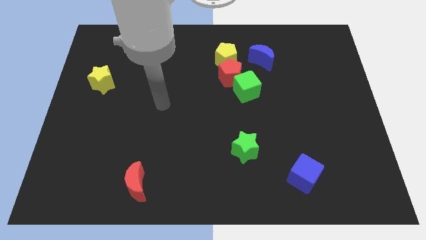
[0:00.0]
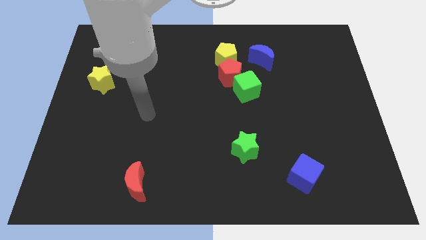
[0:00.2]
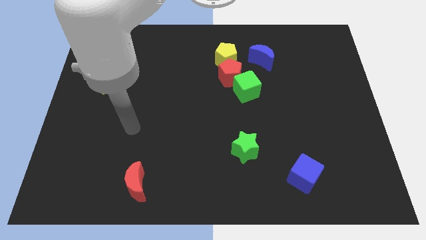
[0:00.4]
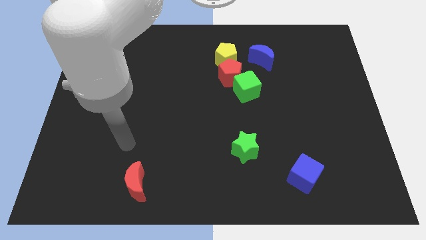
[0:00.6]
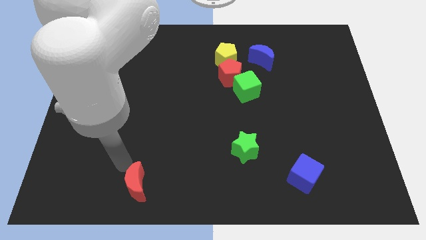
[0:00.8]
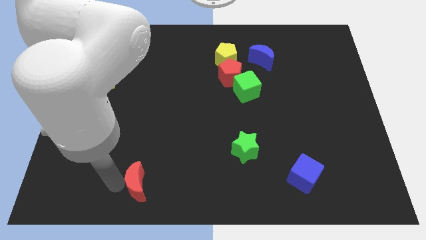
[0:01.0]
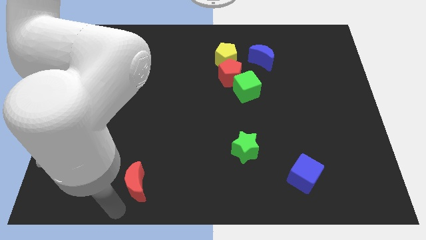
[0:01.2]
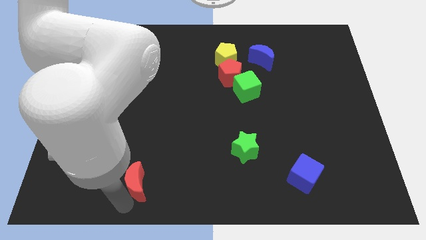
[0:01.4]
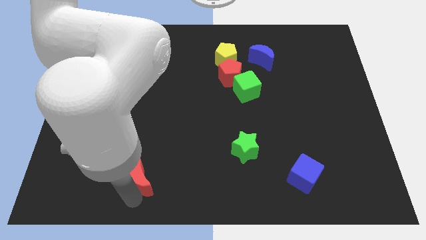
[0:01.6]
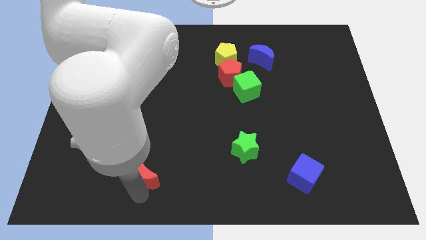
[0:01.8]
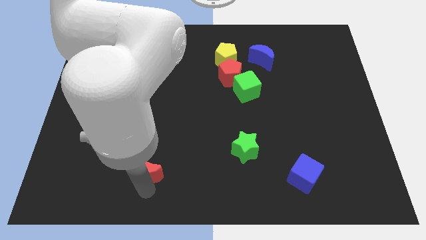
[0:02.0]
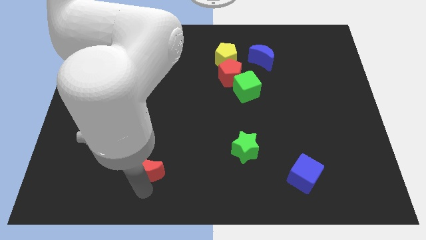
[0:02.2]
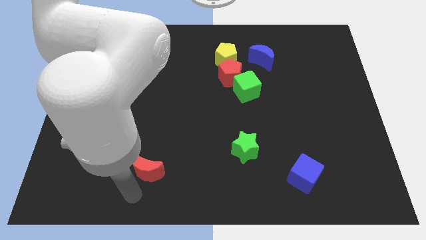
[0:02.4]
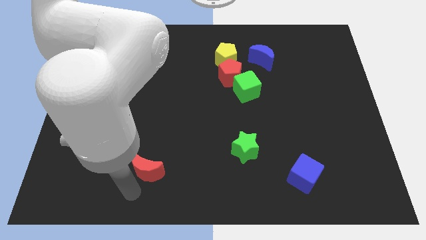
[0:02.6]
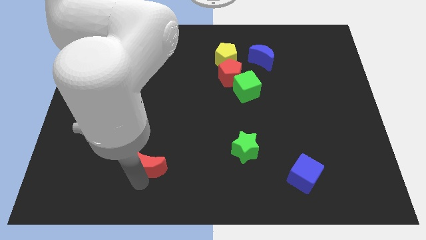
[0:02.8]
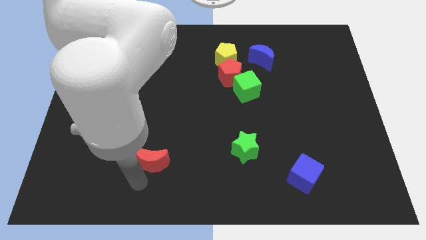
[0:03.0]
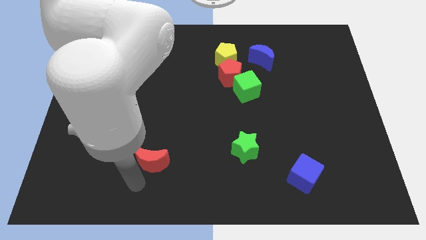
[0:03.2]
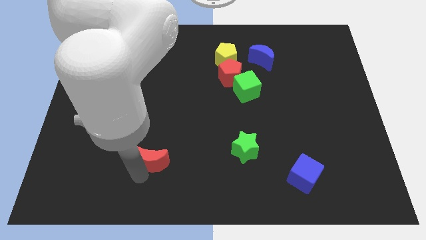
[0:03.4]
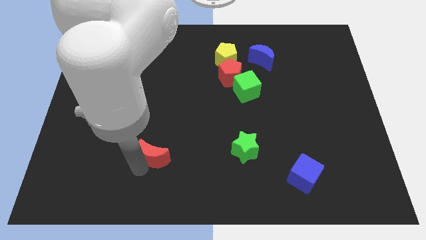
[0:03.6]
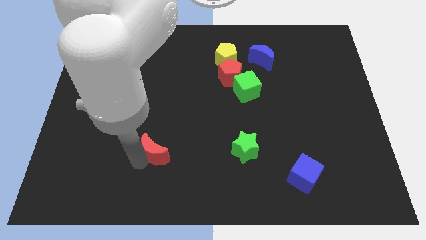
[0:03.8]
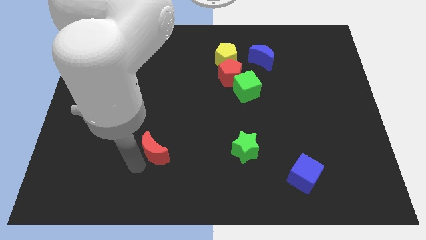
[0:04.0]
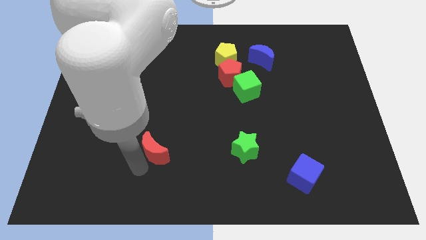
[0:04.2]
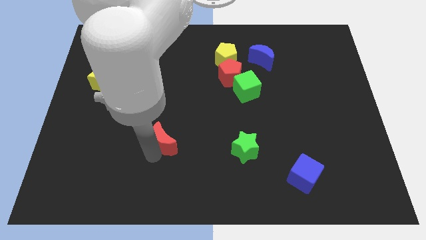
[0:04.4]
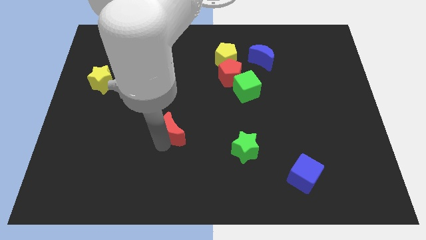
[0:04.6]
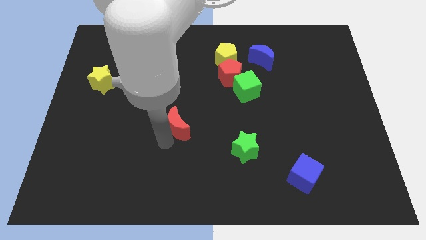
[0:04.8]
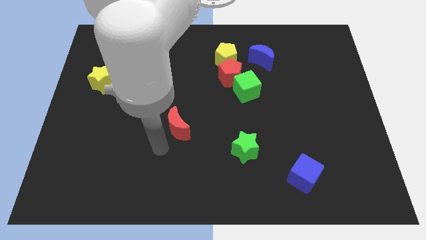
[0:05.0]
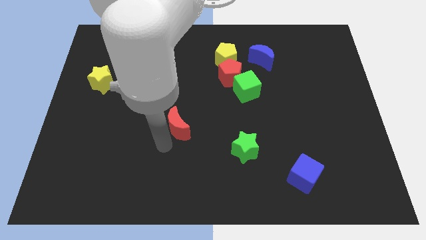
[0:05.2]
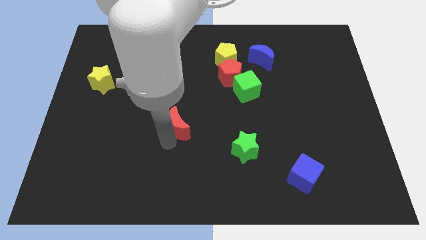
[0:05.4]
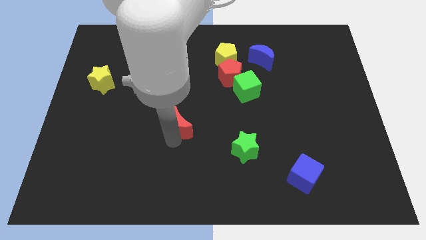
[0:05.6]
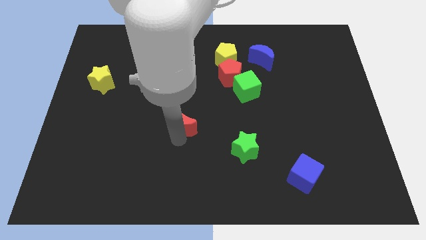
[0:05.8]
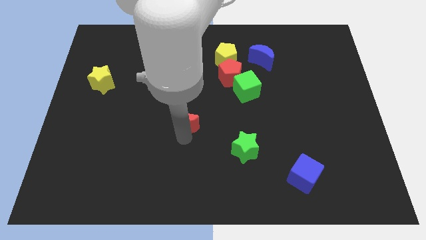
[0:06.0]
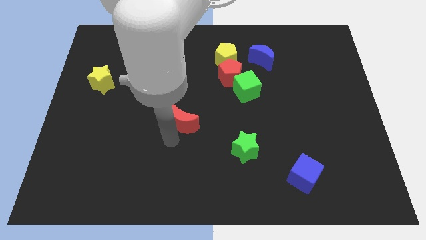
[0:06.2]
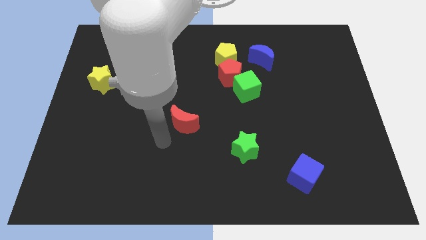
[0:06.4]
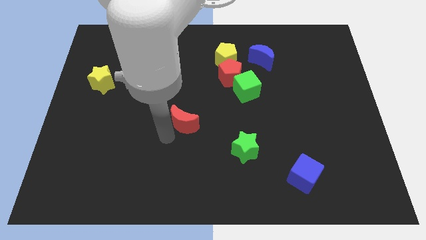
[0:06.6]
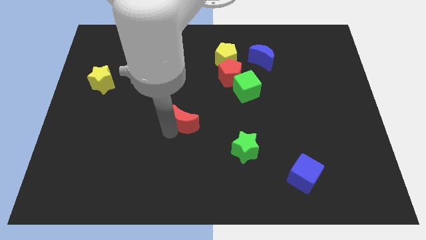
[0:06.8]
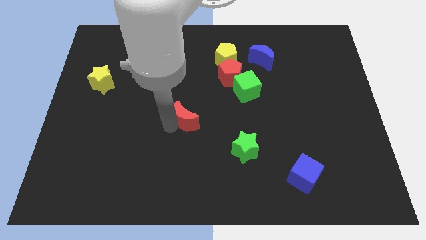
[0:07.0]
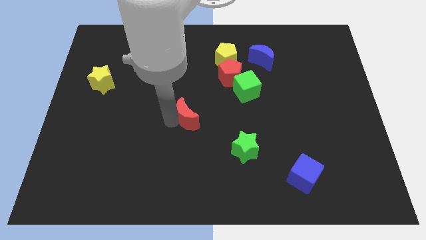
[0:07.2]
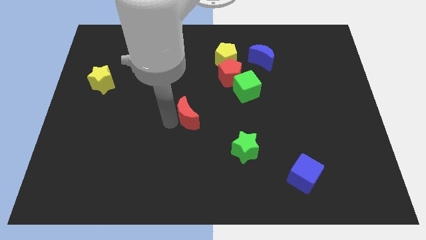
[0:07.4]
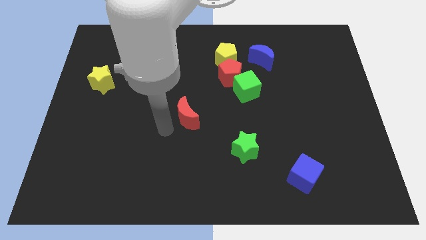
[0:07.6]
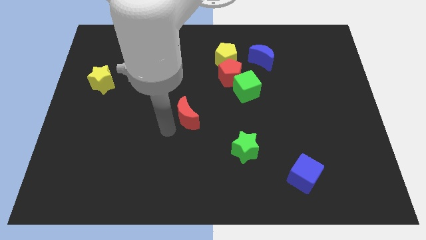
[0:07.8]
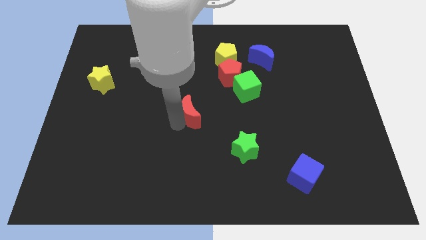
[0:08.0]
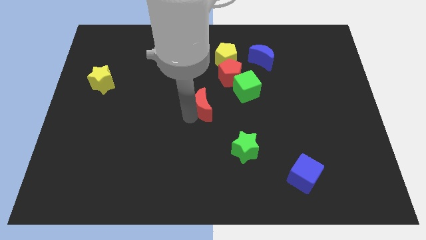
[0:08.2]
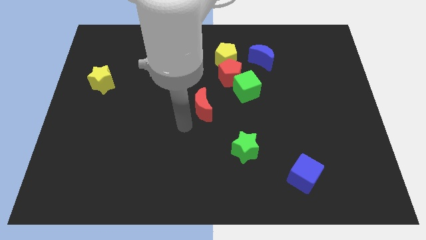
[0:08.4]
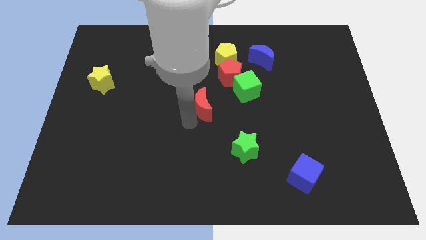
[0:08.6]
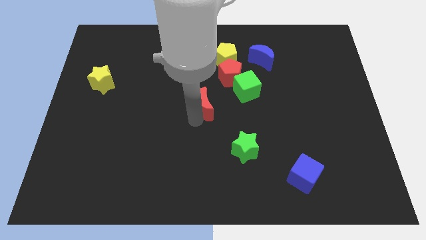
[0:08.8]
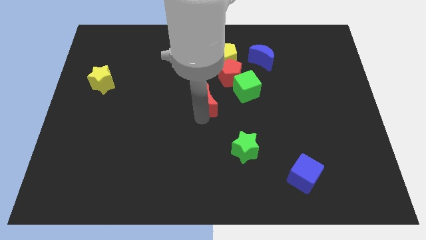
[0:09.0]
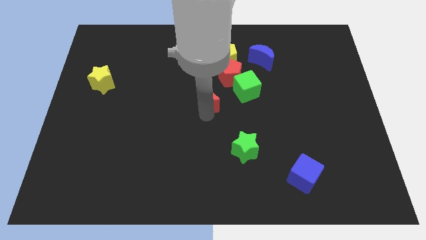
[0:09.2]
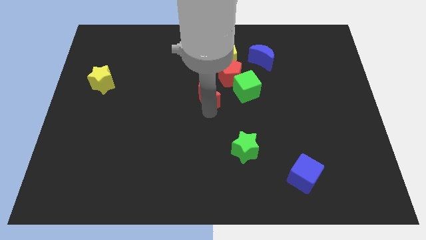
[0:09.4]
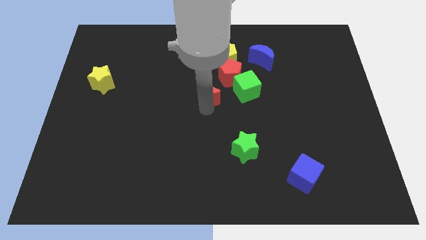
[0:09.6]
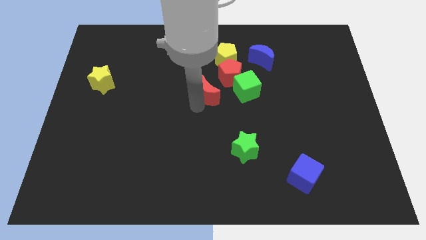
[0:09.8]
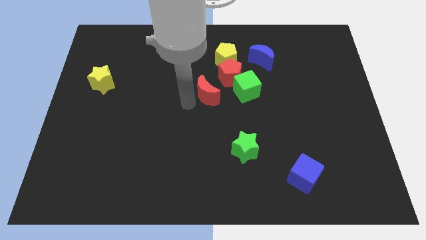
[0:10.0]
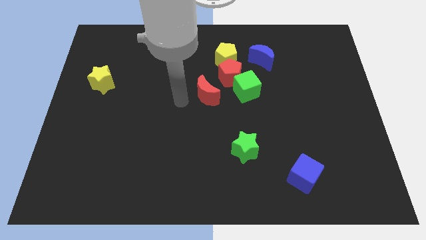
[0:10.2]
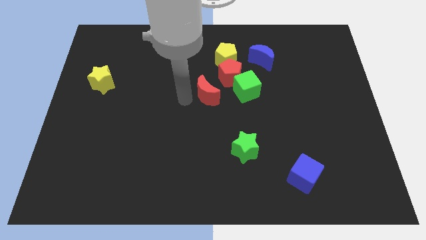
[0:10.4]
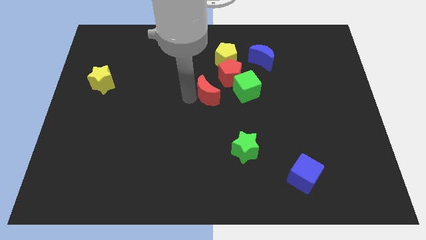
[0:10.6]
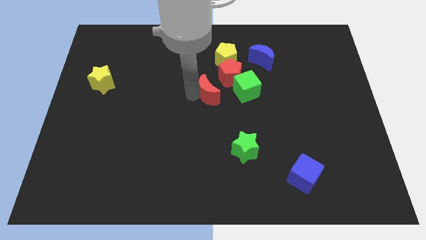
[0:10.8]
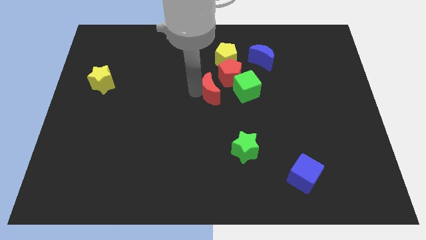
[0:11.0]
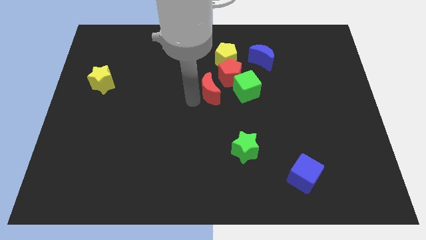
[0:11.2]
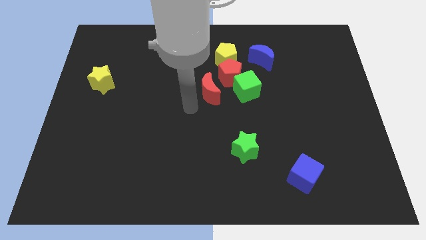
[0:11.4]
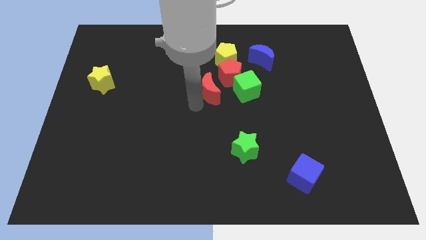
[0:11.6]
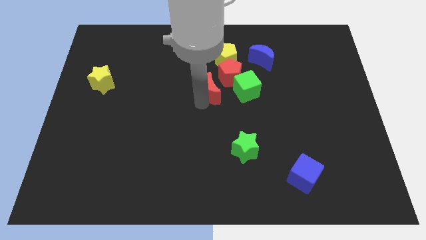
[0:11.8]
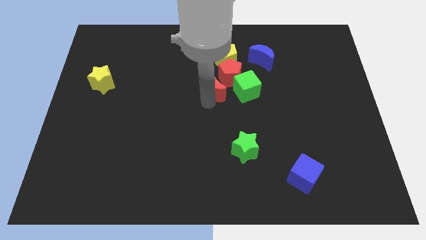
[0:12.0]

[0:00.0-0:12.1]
push the red moon close to the red pentagon

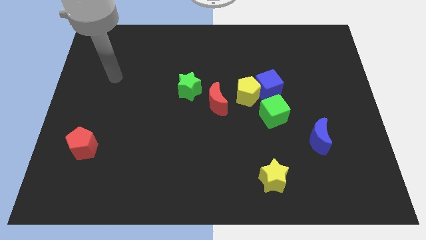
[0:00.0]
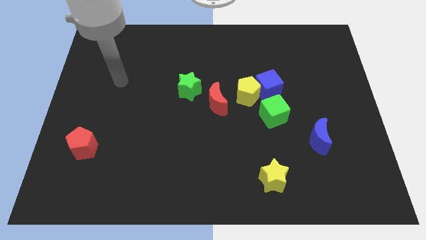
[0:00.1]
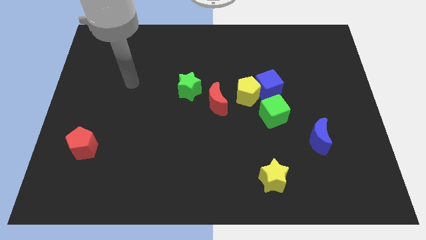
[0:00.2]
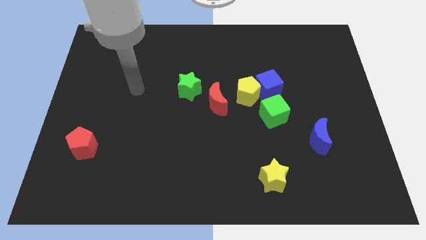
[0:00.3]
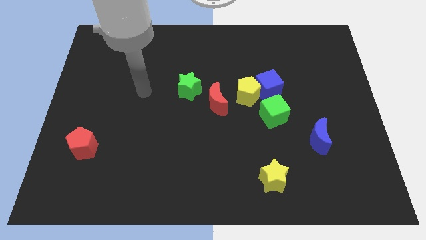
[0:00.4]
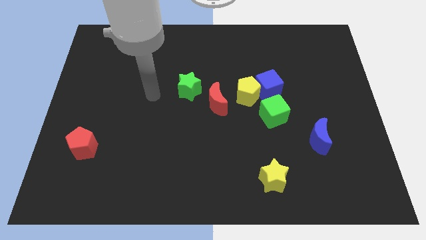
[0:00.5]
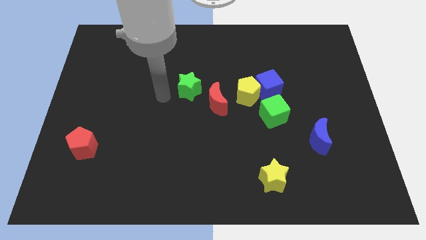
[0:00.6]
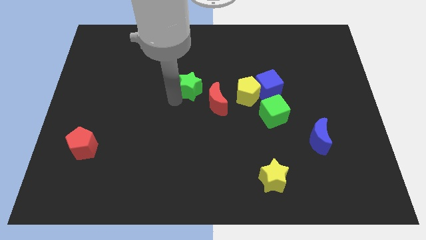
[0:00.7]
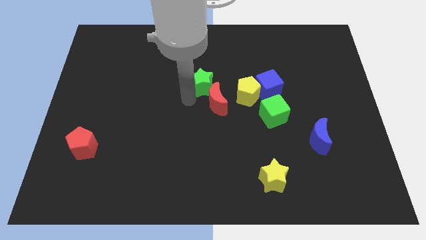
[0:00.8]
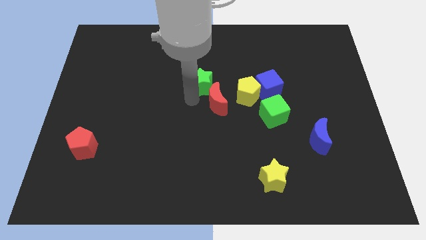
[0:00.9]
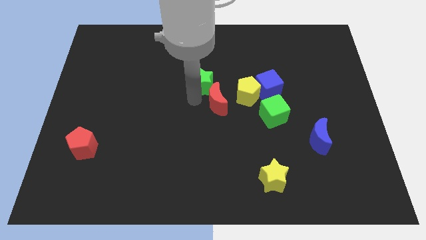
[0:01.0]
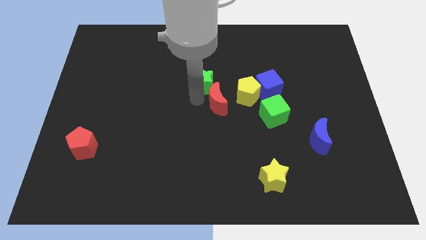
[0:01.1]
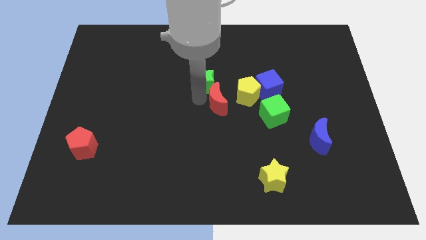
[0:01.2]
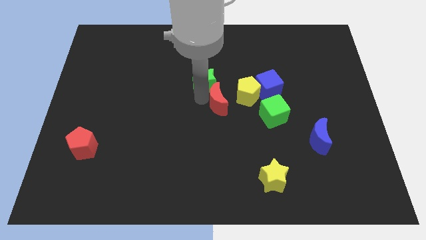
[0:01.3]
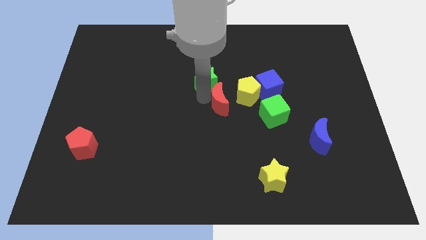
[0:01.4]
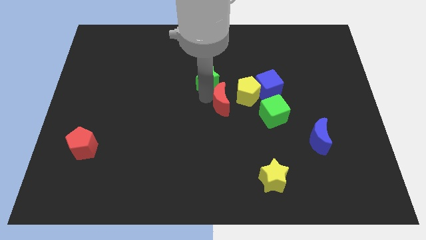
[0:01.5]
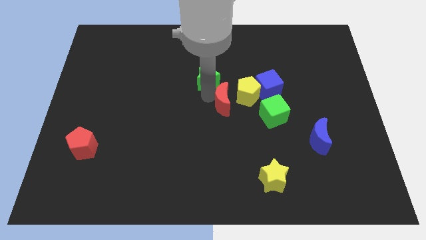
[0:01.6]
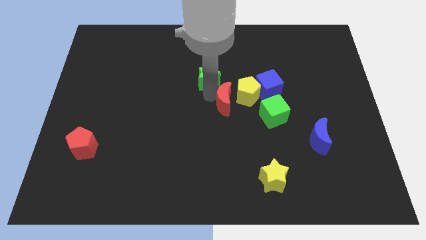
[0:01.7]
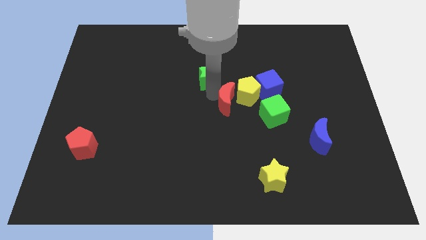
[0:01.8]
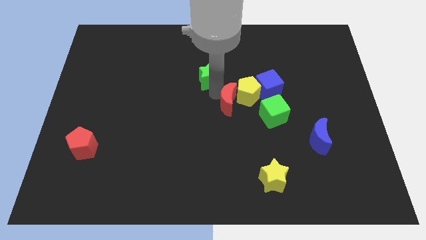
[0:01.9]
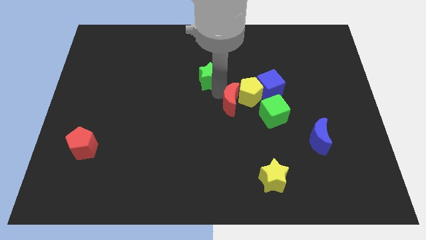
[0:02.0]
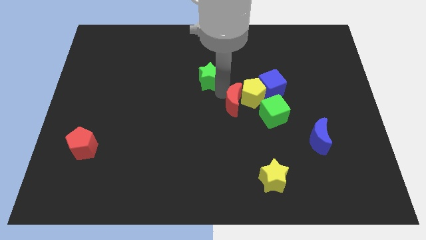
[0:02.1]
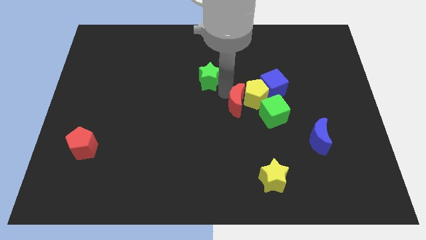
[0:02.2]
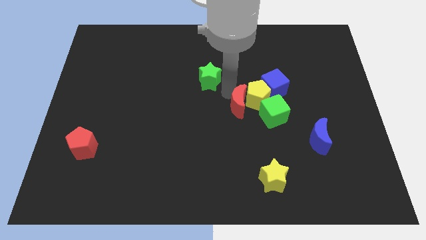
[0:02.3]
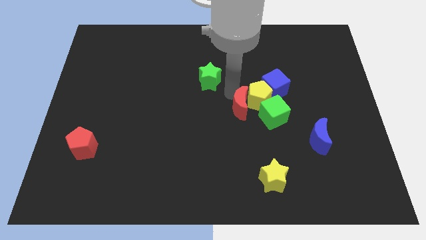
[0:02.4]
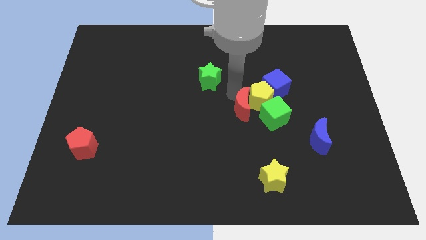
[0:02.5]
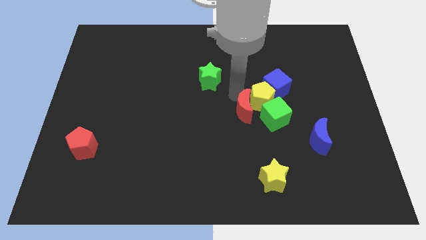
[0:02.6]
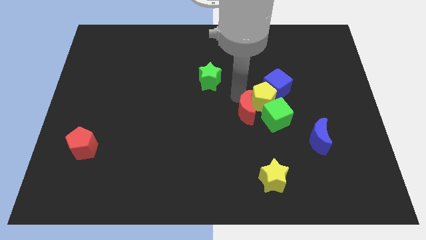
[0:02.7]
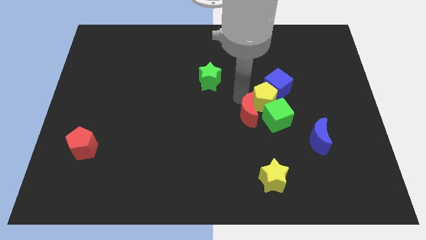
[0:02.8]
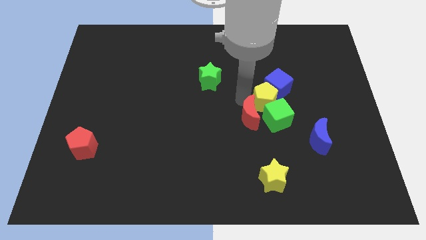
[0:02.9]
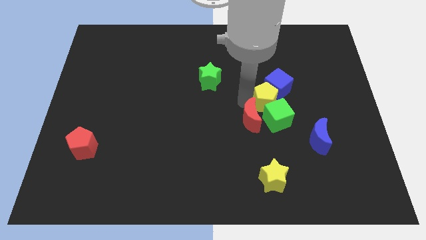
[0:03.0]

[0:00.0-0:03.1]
put the red moon next to the green cube
